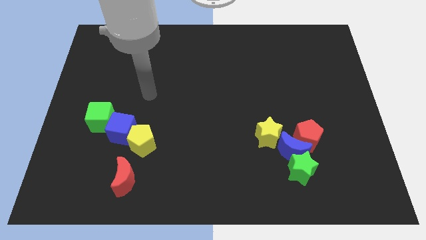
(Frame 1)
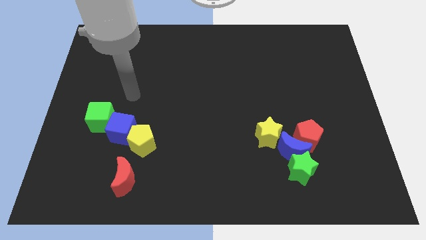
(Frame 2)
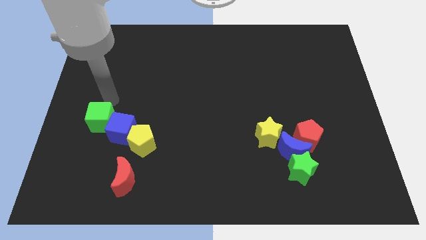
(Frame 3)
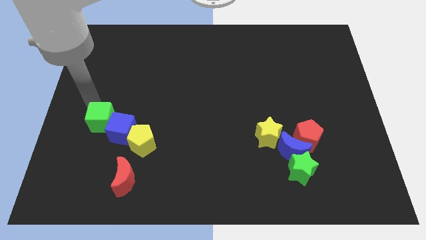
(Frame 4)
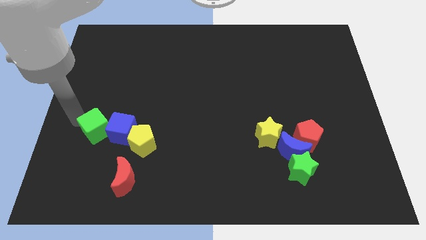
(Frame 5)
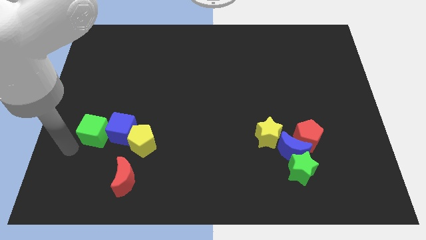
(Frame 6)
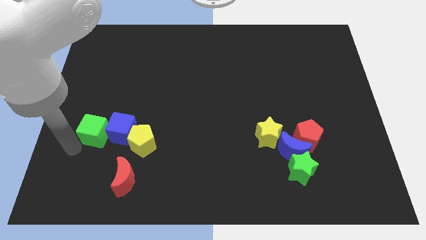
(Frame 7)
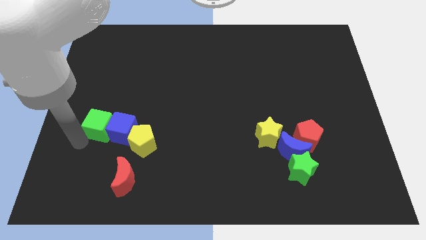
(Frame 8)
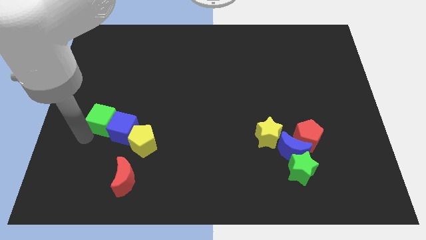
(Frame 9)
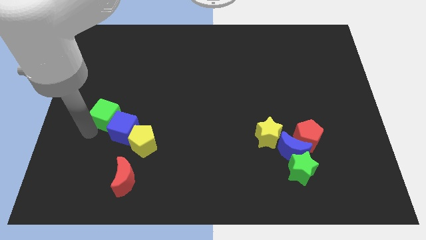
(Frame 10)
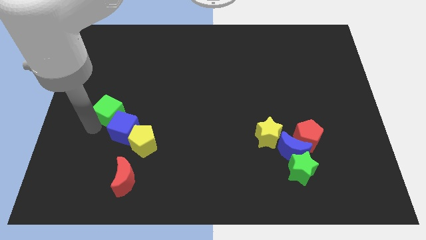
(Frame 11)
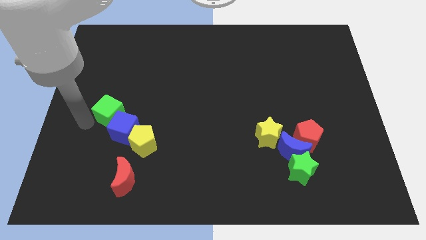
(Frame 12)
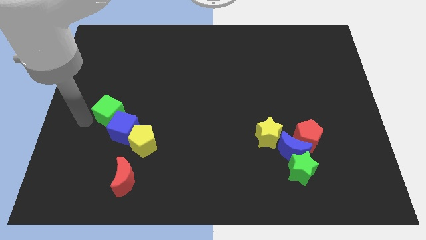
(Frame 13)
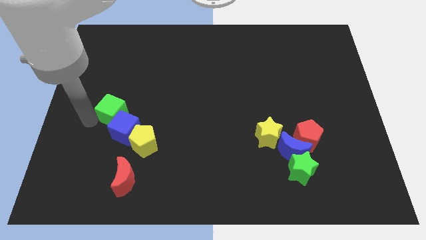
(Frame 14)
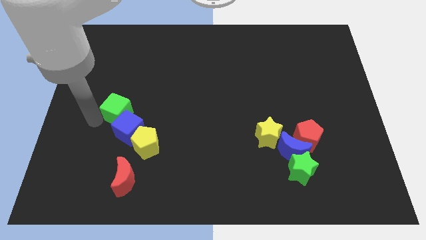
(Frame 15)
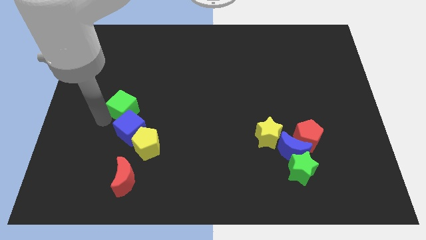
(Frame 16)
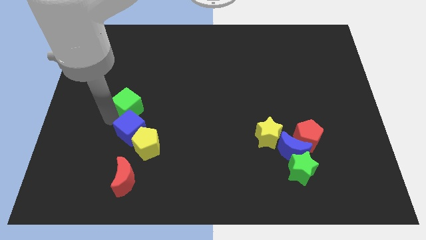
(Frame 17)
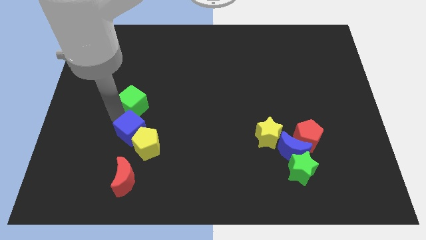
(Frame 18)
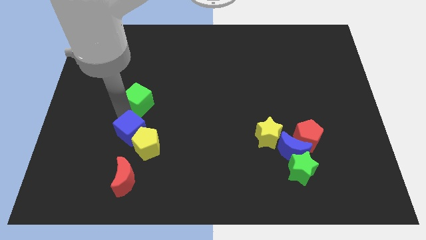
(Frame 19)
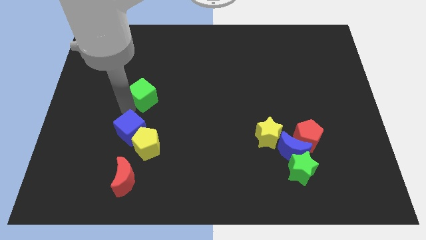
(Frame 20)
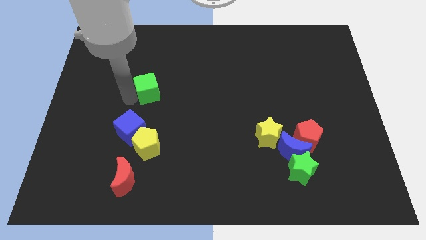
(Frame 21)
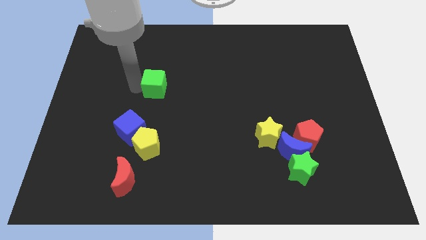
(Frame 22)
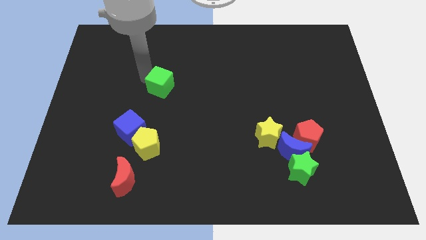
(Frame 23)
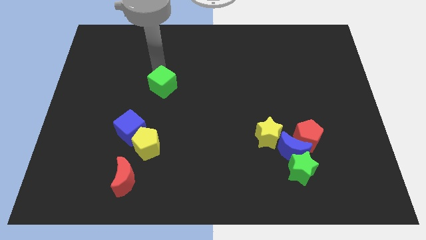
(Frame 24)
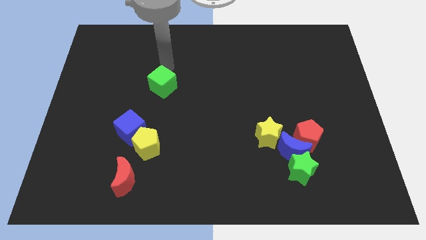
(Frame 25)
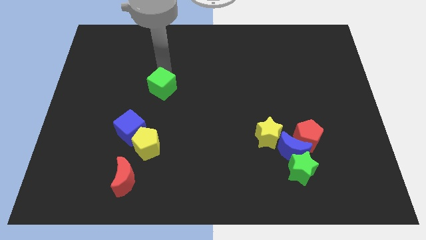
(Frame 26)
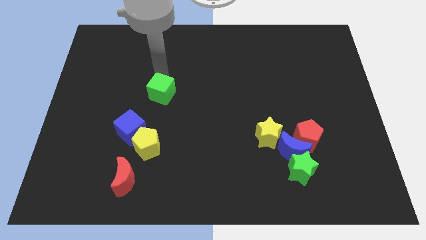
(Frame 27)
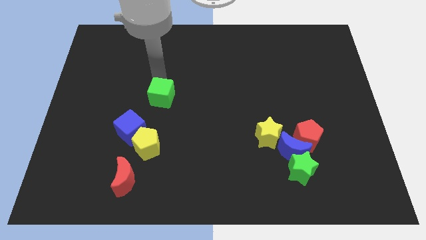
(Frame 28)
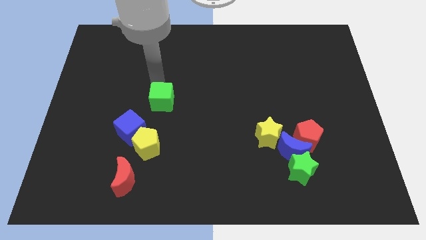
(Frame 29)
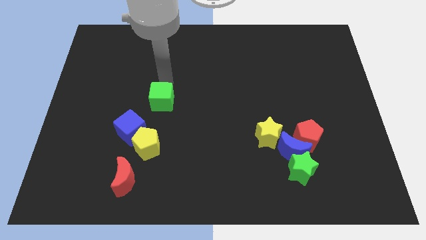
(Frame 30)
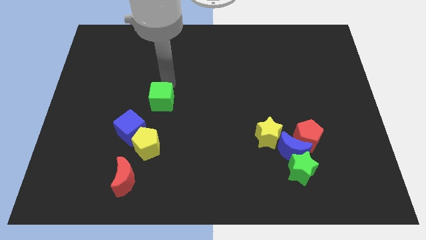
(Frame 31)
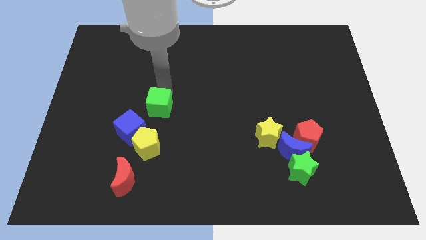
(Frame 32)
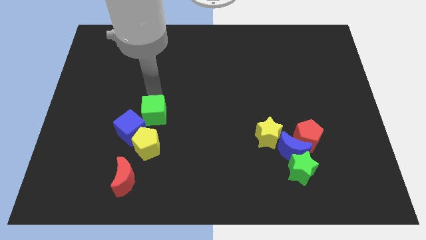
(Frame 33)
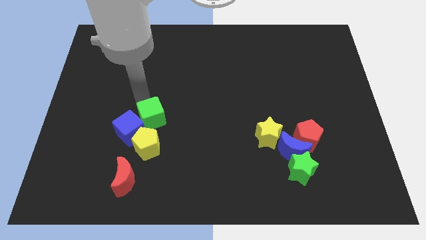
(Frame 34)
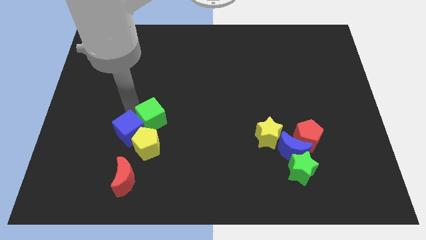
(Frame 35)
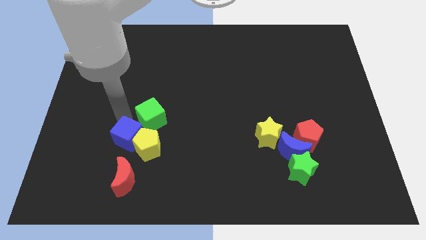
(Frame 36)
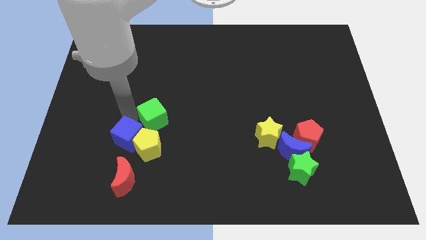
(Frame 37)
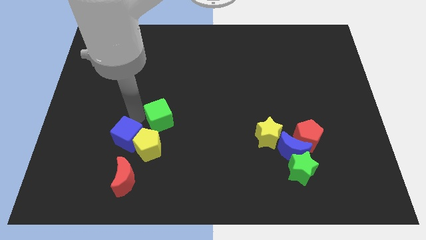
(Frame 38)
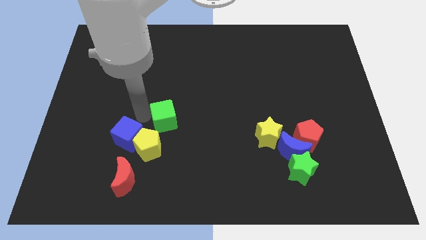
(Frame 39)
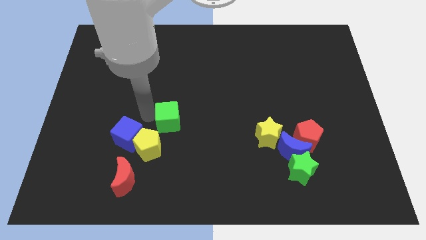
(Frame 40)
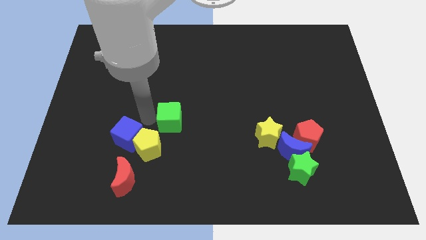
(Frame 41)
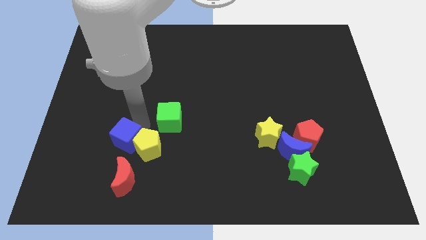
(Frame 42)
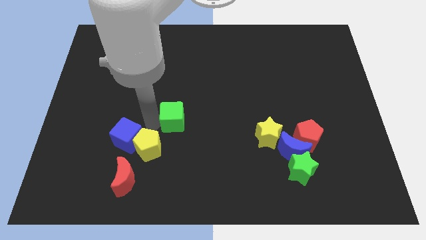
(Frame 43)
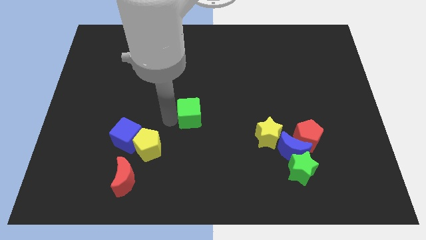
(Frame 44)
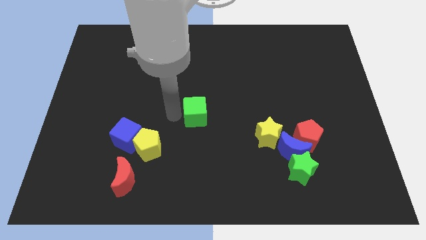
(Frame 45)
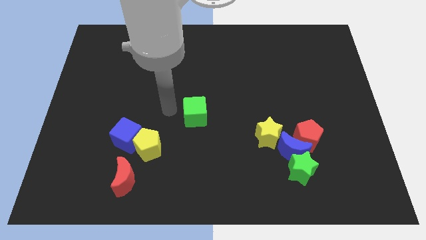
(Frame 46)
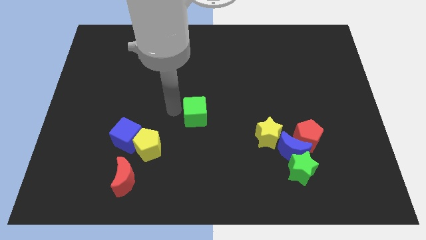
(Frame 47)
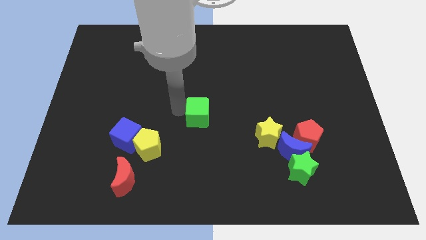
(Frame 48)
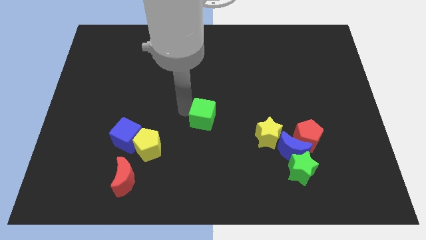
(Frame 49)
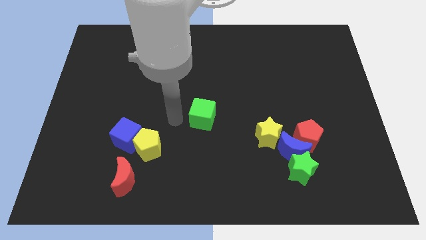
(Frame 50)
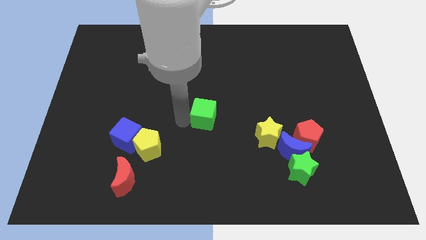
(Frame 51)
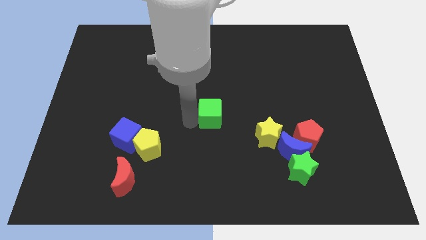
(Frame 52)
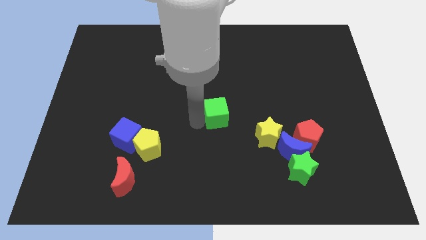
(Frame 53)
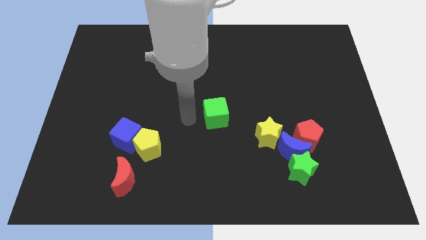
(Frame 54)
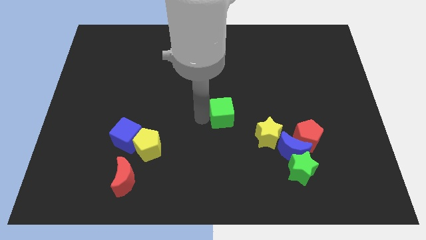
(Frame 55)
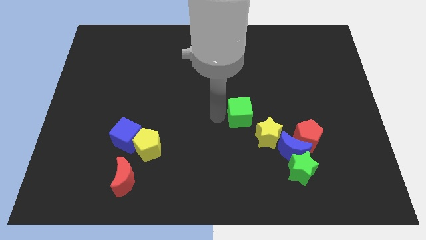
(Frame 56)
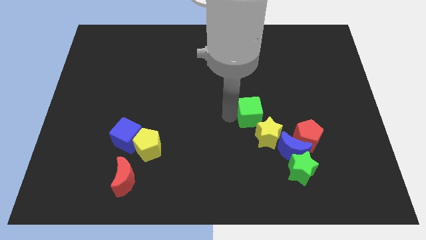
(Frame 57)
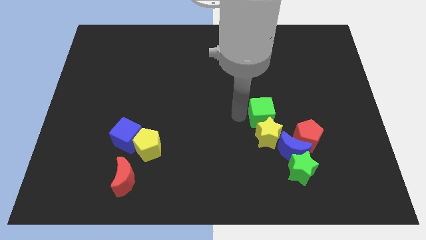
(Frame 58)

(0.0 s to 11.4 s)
put the green cube diagonally up and to the right of the yellow star

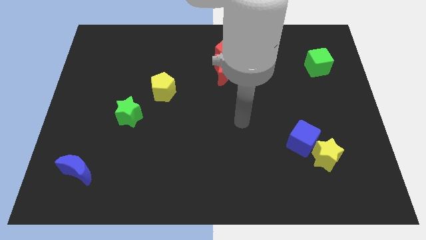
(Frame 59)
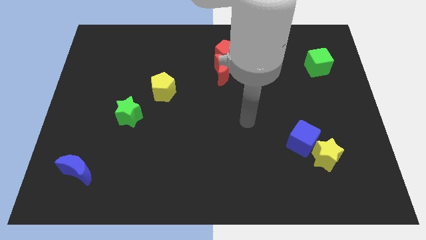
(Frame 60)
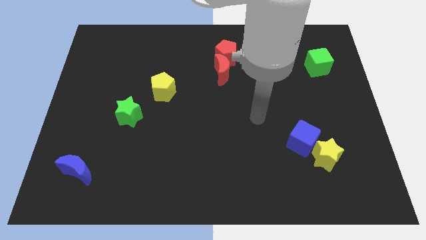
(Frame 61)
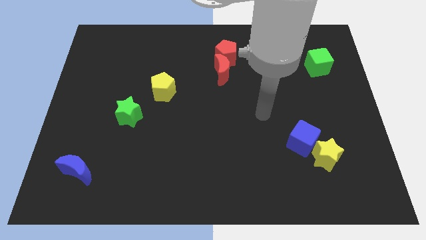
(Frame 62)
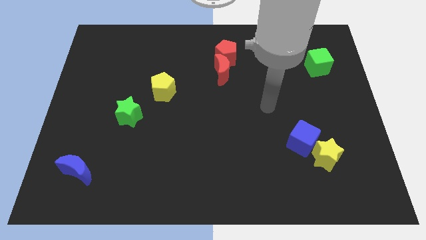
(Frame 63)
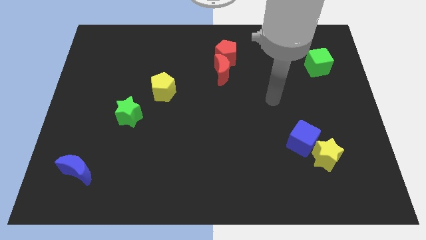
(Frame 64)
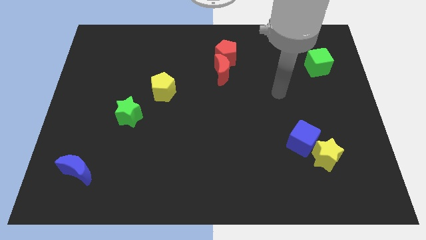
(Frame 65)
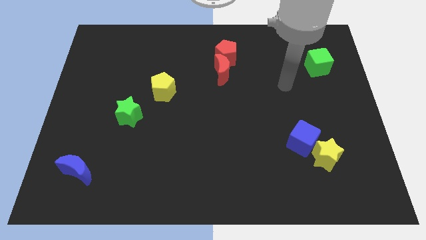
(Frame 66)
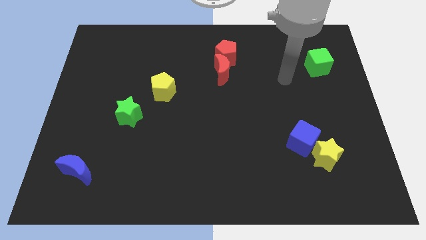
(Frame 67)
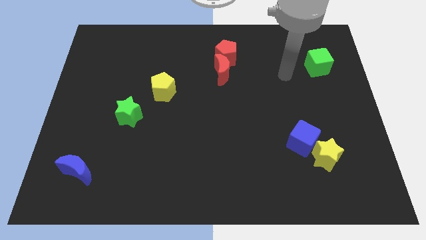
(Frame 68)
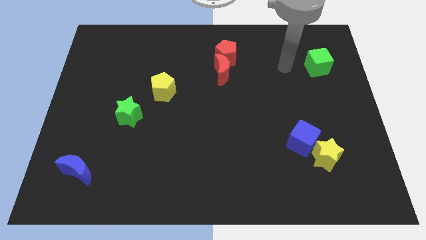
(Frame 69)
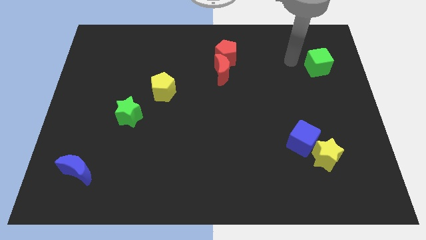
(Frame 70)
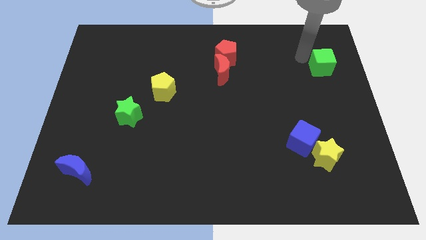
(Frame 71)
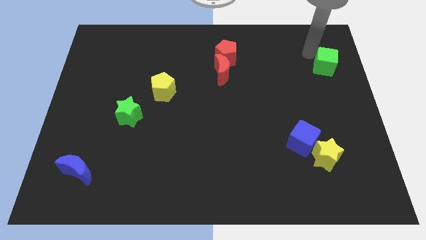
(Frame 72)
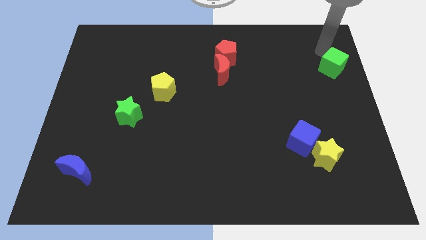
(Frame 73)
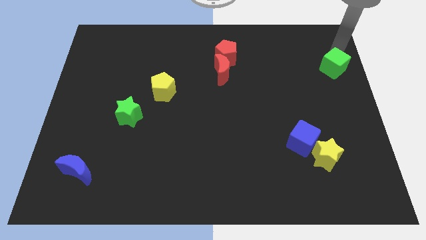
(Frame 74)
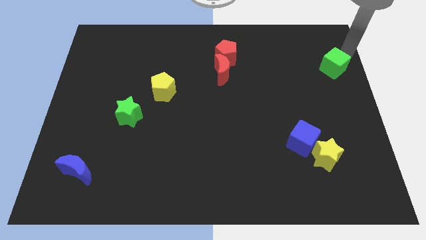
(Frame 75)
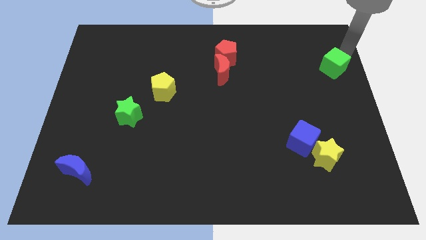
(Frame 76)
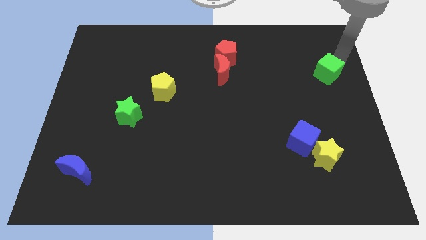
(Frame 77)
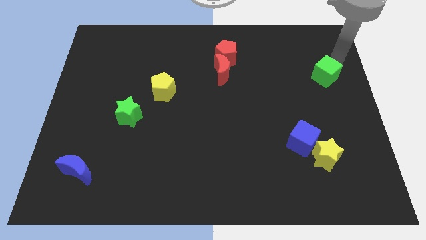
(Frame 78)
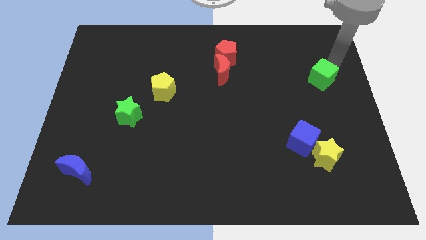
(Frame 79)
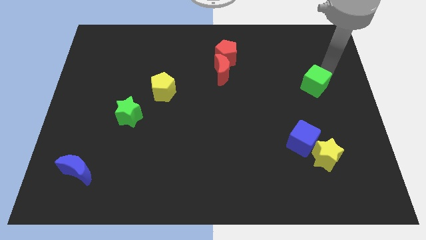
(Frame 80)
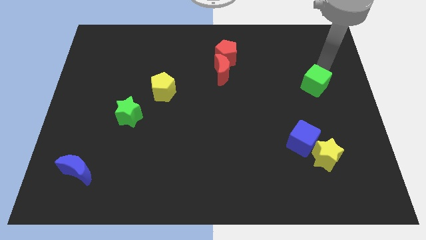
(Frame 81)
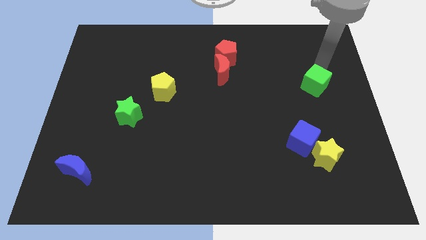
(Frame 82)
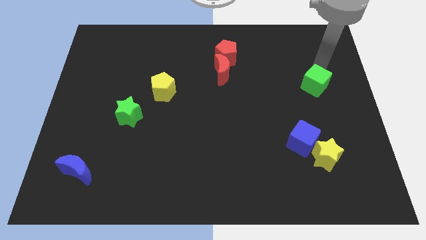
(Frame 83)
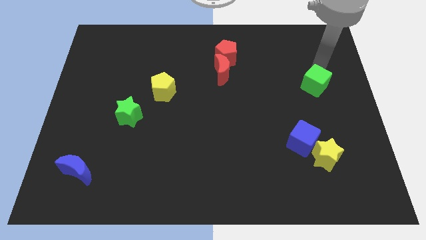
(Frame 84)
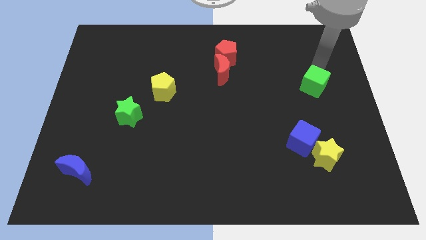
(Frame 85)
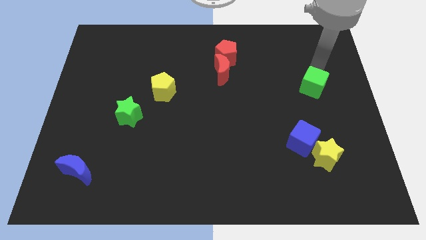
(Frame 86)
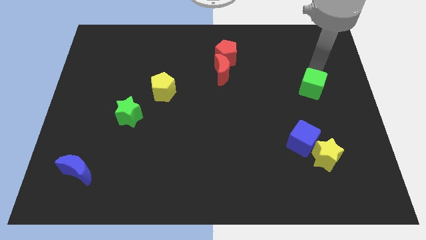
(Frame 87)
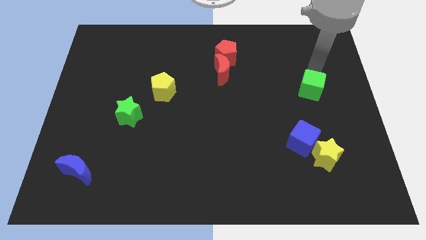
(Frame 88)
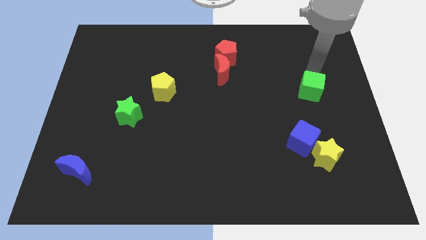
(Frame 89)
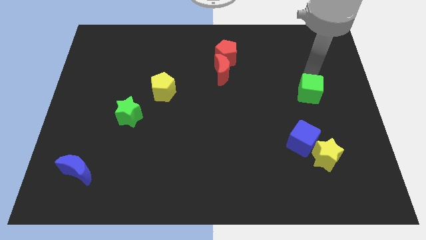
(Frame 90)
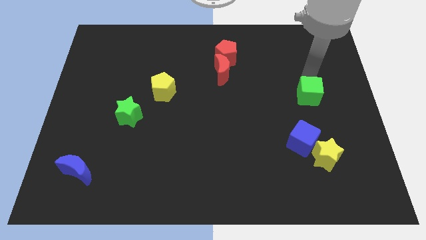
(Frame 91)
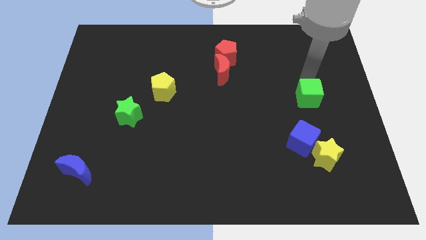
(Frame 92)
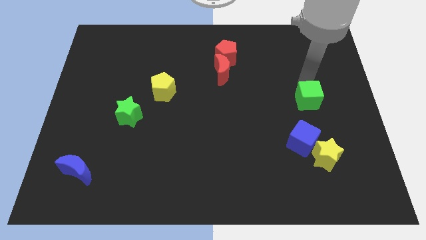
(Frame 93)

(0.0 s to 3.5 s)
put the green cube to the top side of the yellow star
